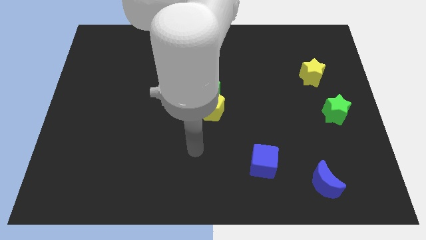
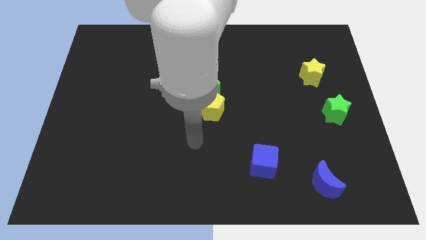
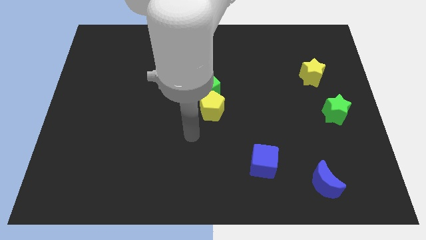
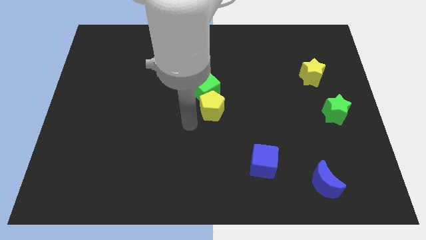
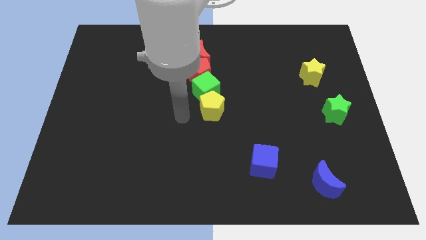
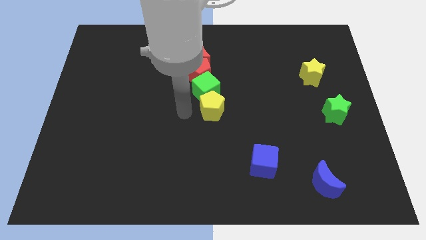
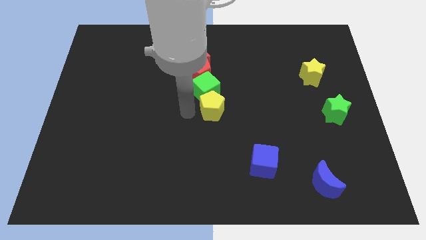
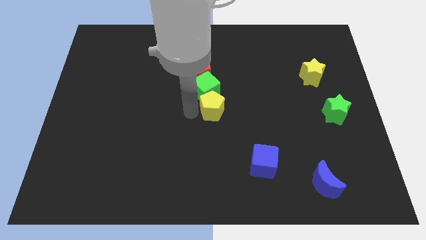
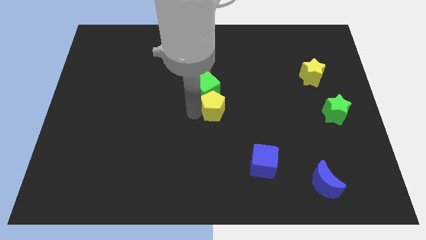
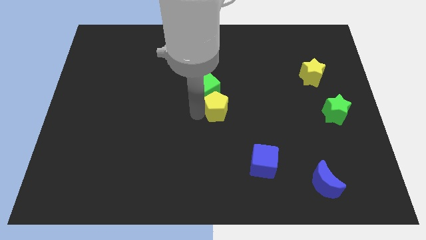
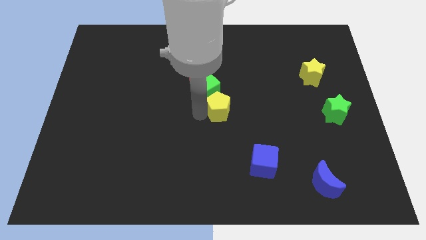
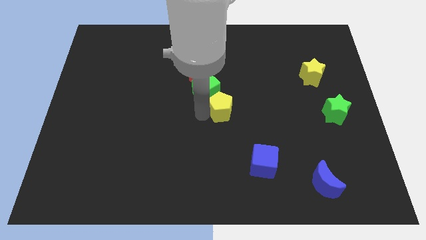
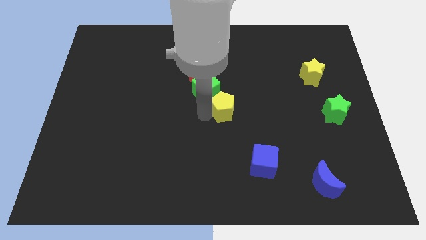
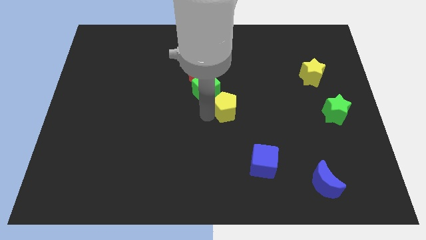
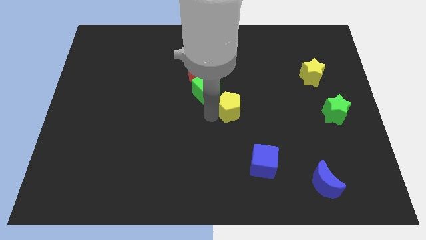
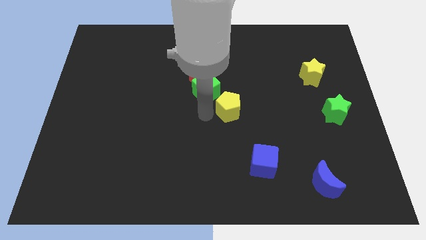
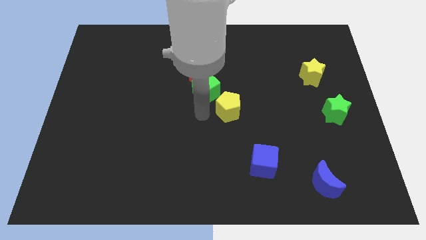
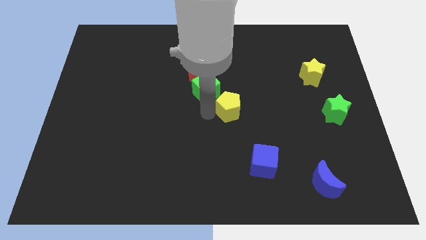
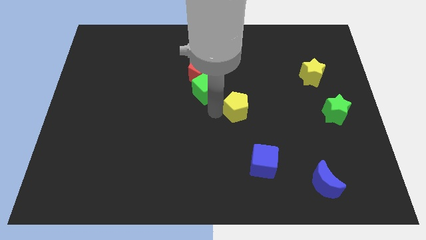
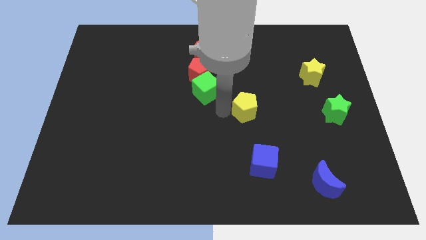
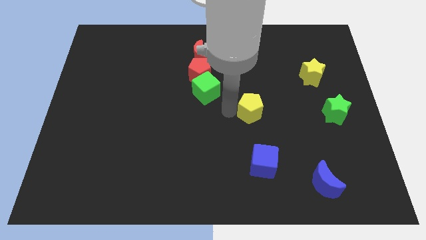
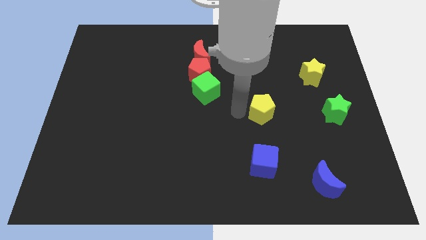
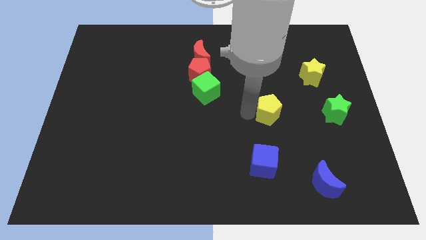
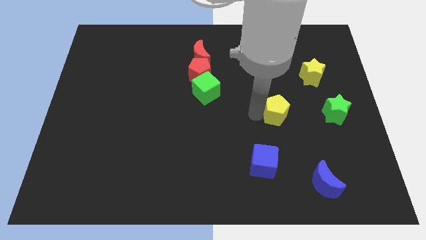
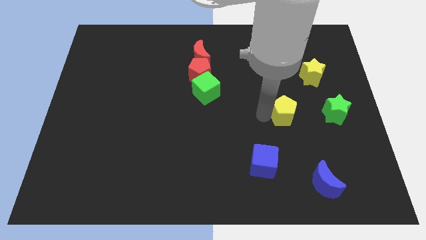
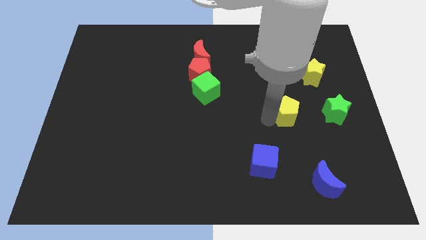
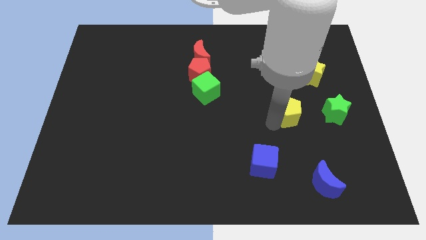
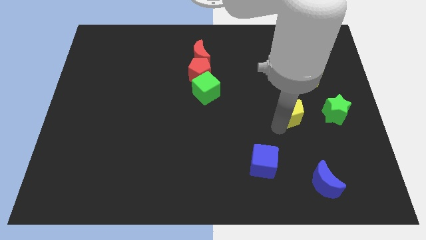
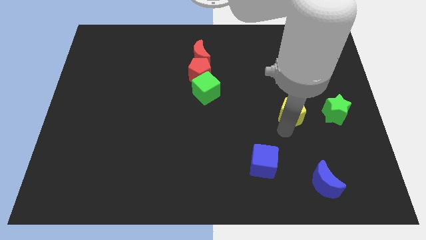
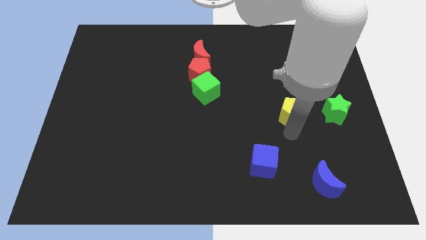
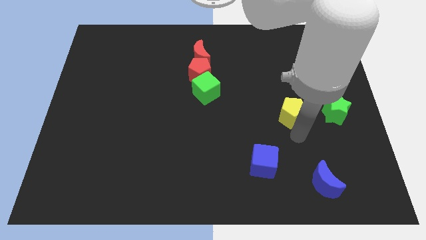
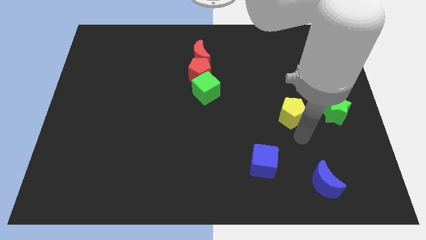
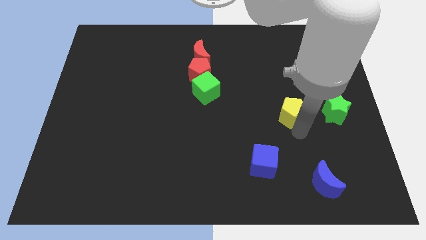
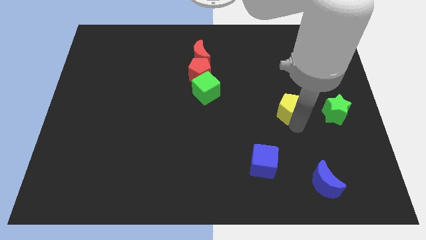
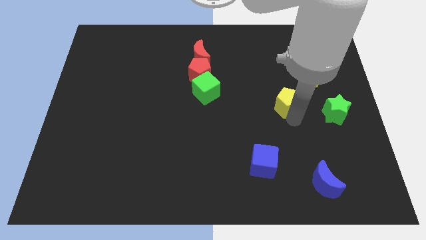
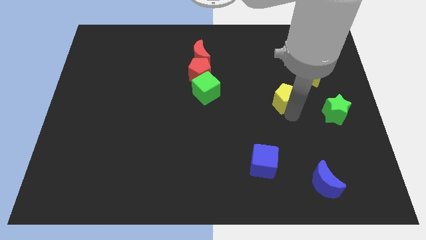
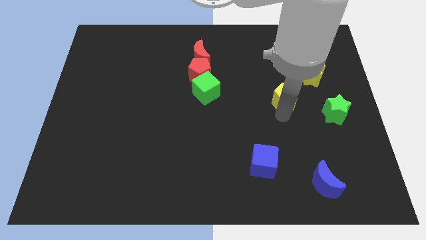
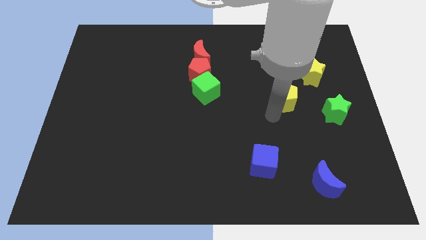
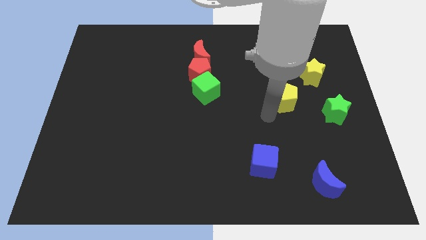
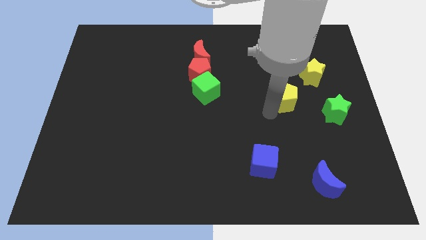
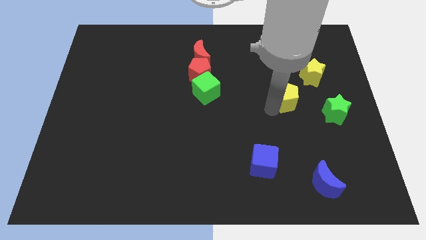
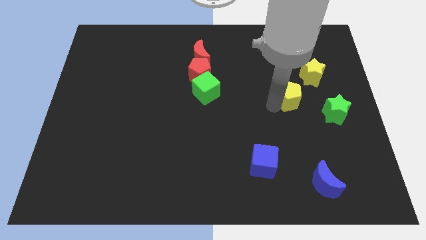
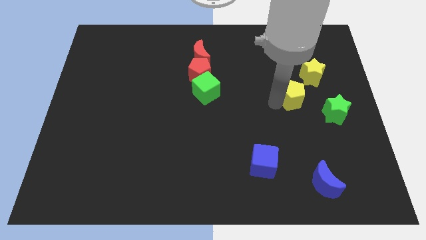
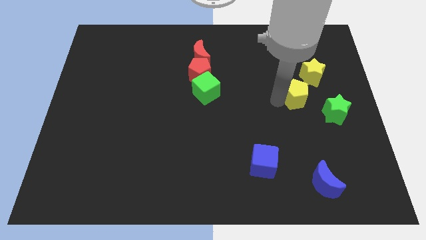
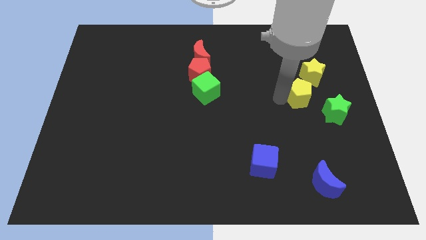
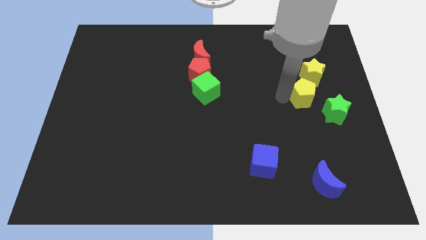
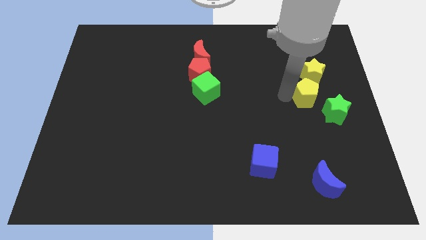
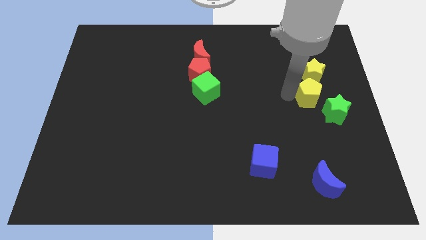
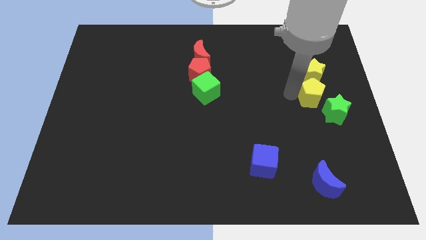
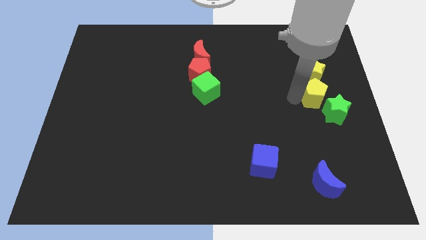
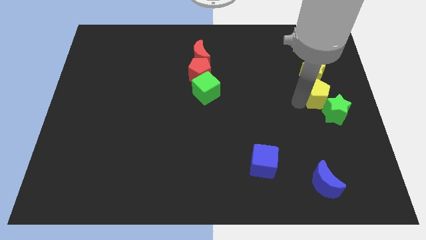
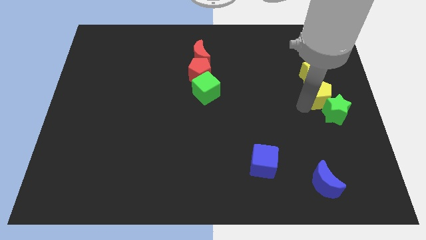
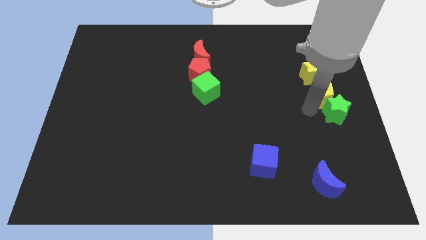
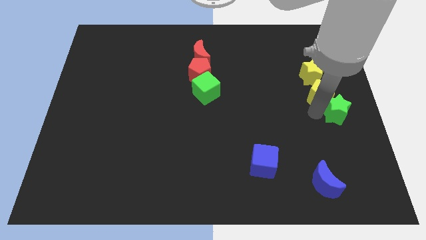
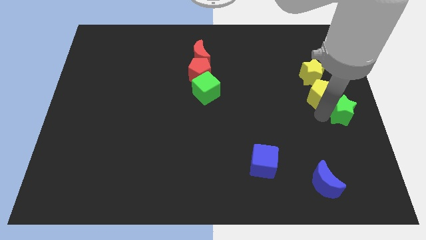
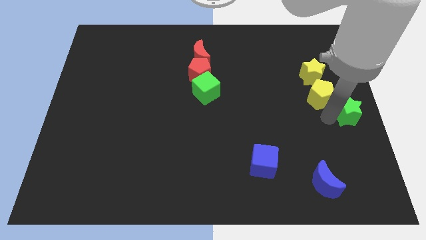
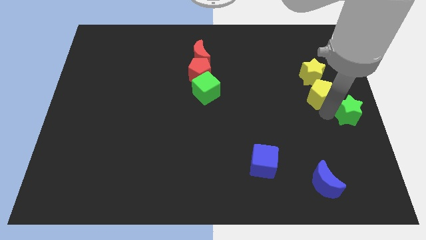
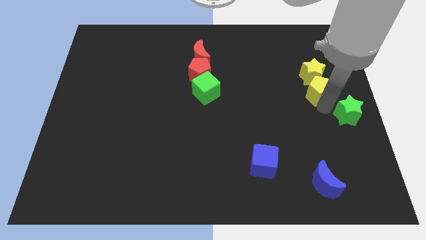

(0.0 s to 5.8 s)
slide the yellow pentagon towards the yellow star

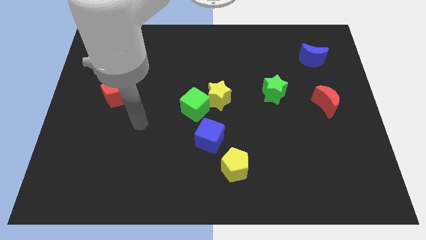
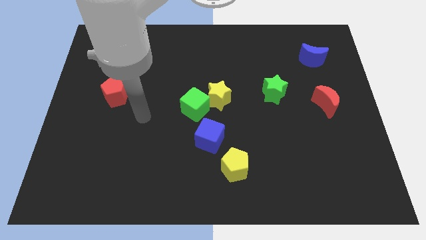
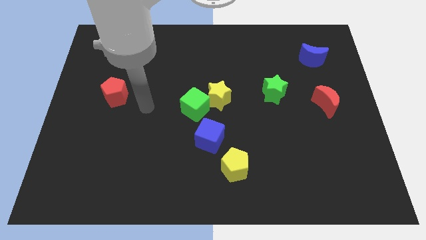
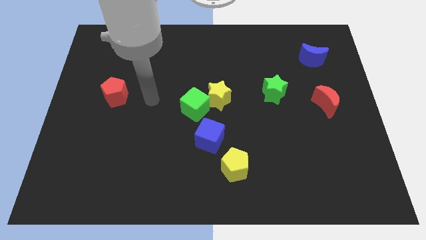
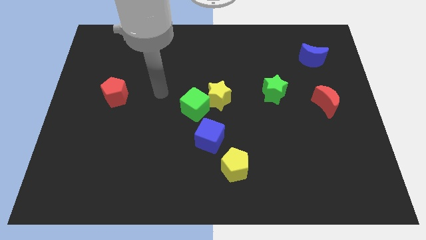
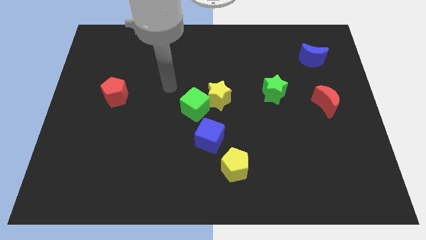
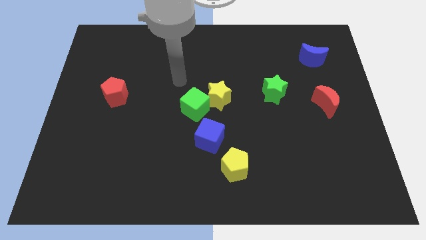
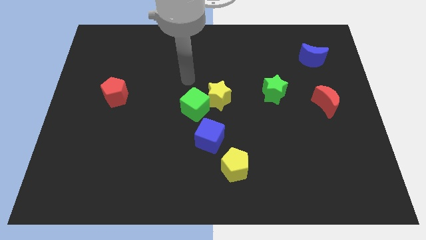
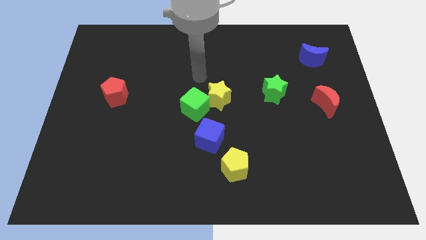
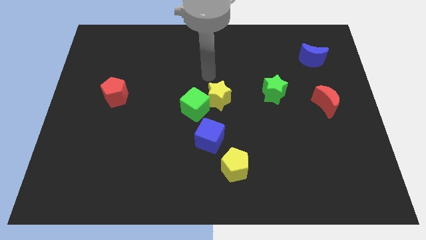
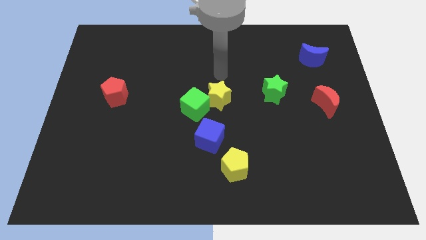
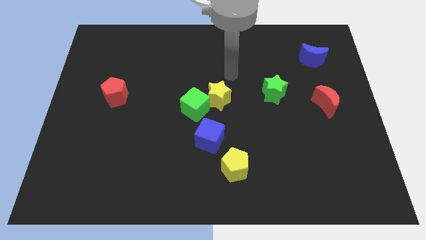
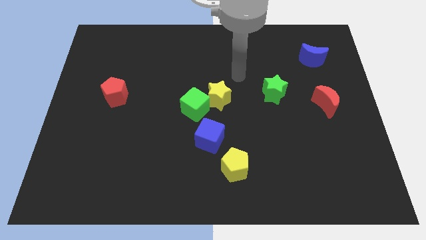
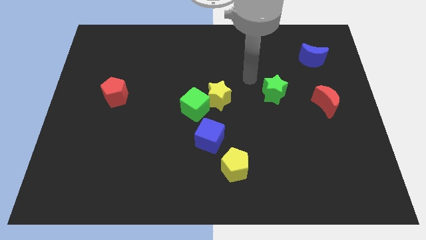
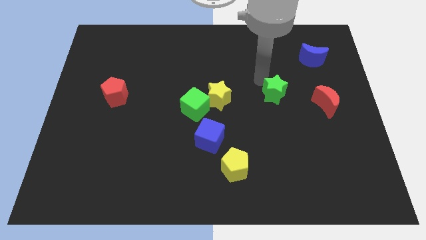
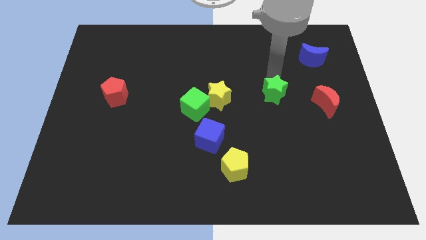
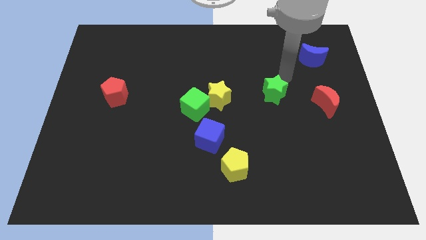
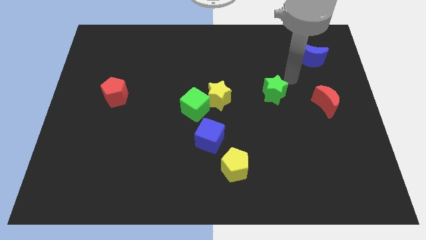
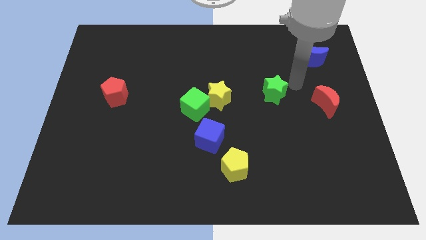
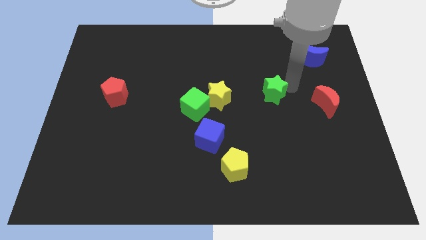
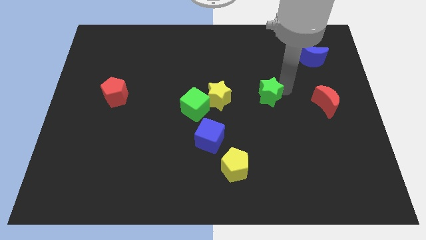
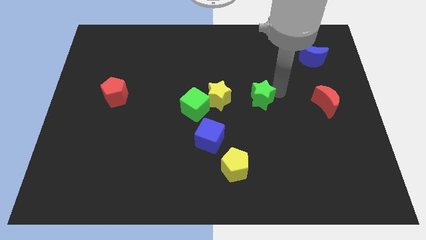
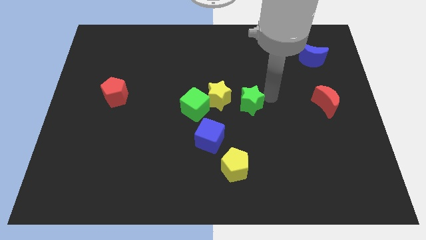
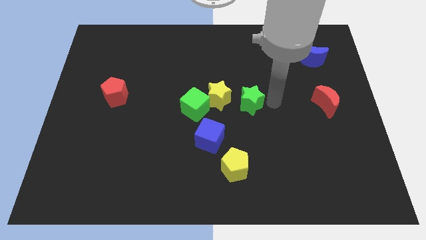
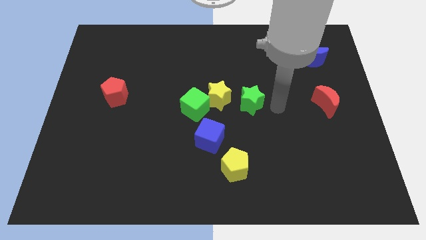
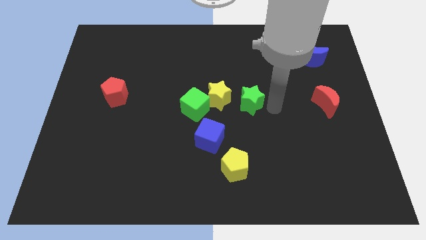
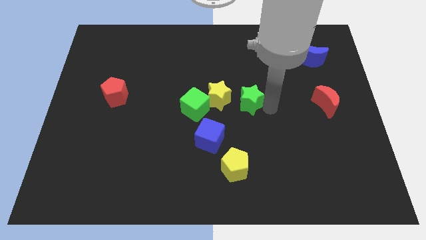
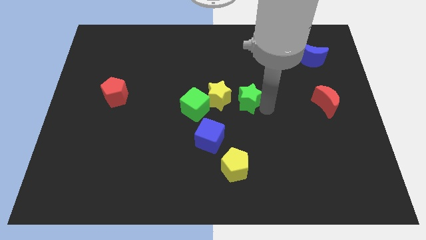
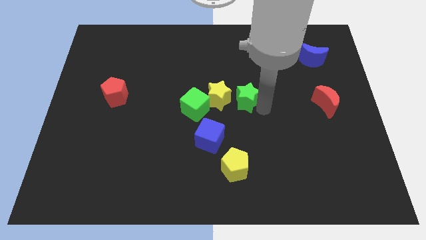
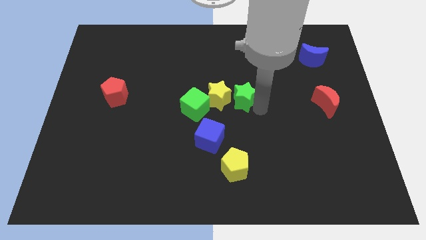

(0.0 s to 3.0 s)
push the green star to the yellow star
